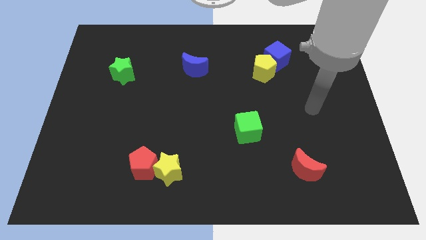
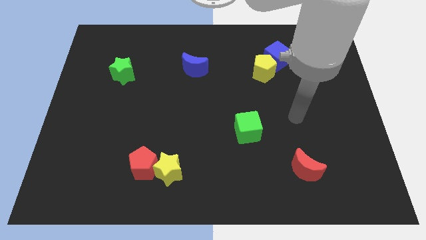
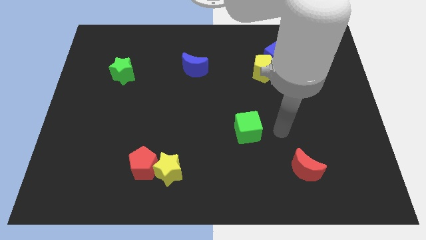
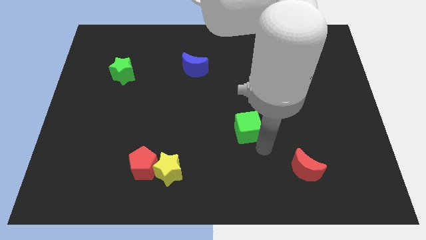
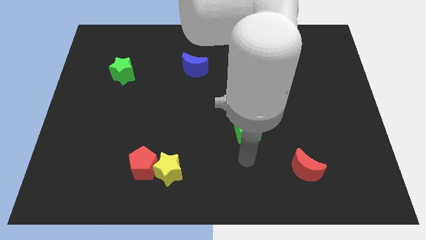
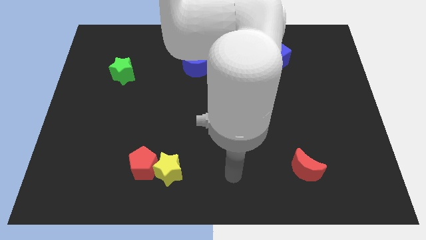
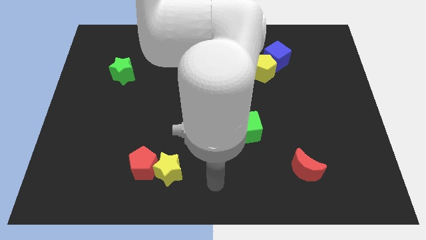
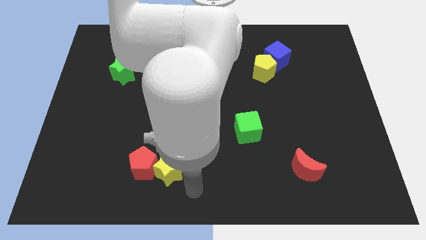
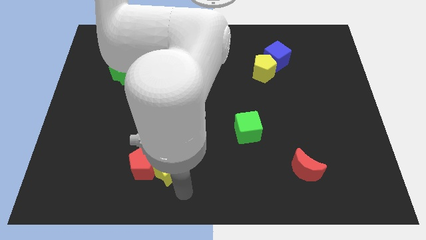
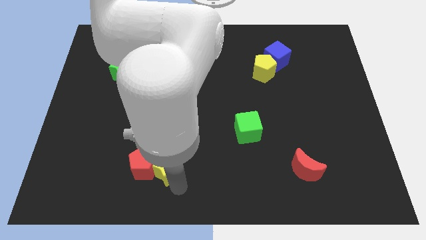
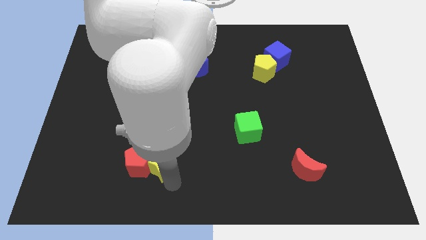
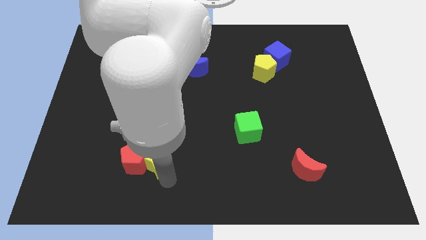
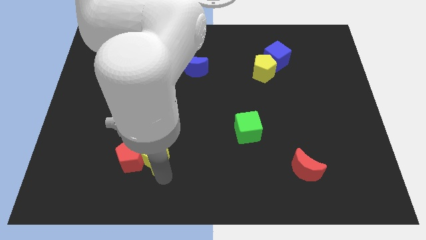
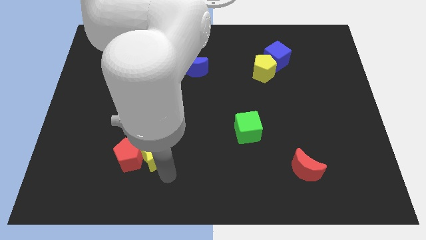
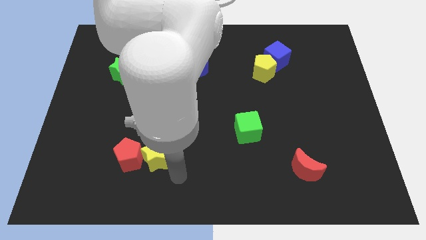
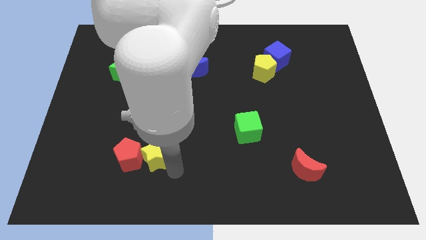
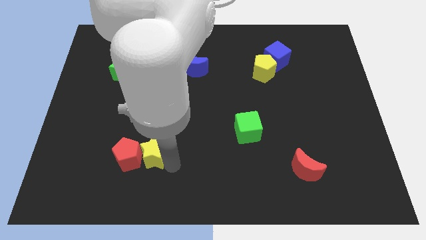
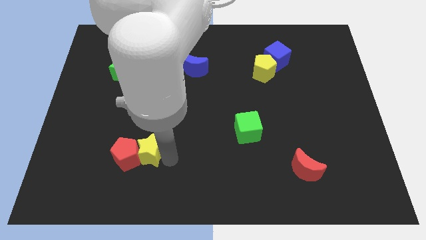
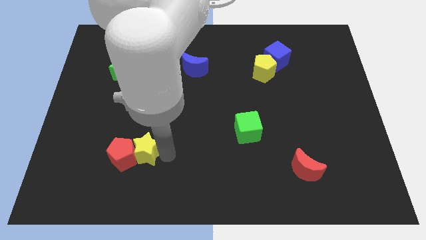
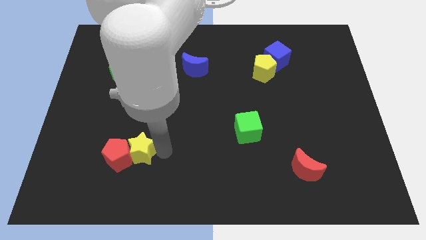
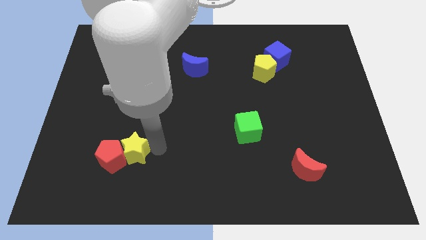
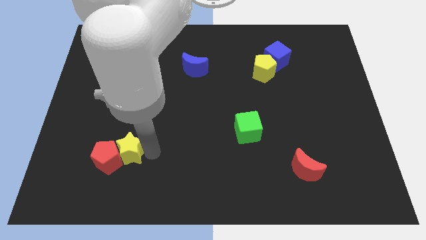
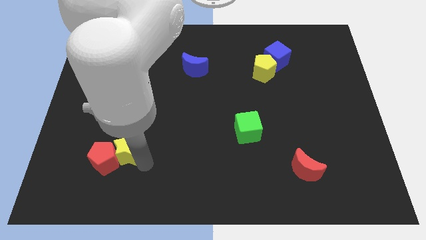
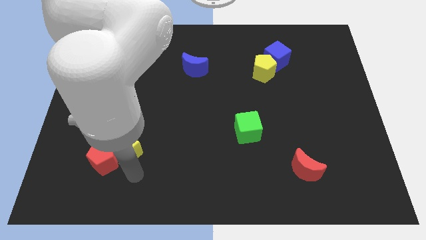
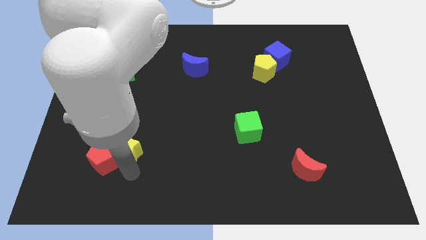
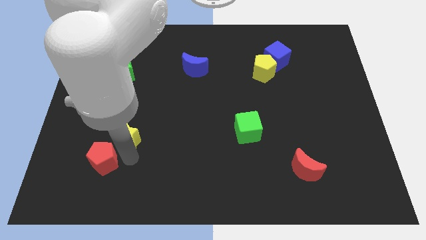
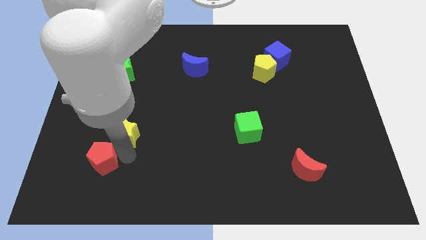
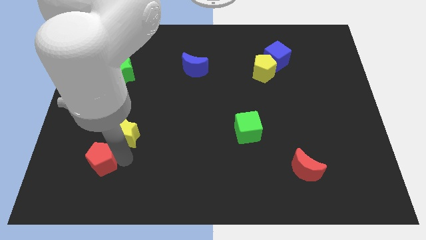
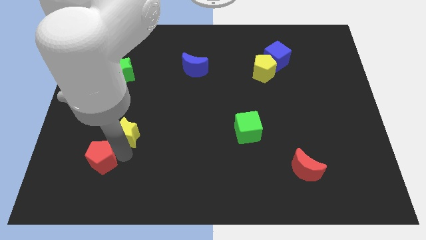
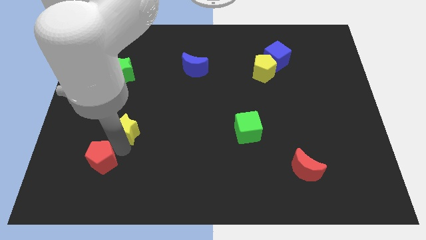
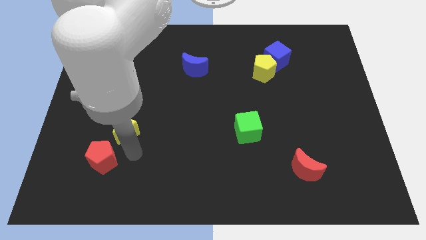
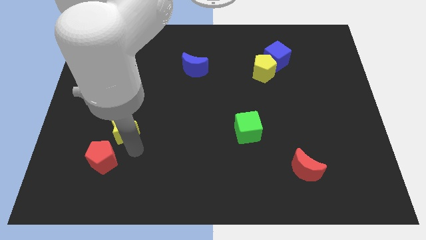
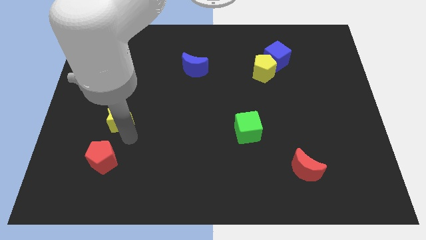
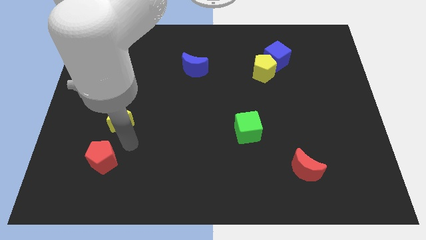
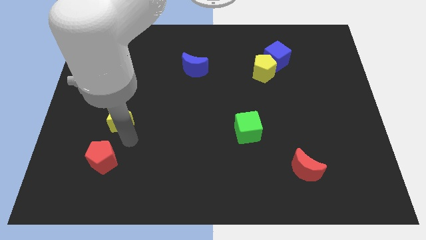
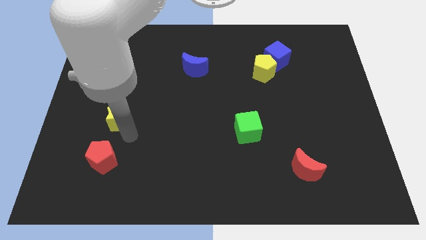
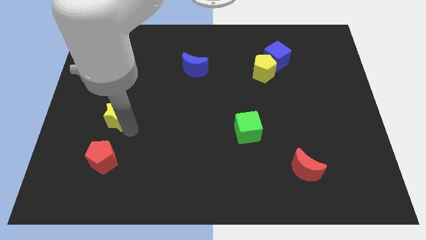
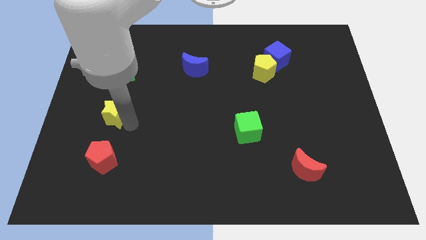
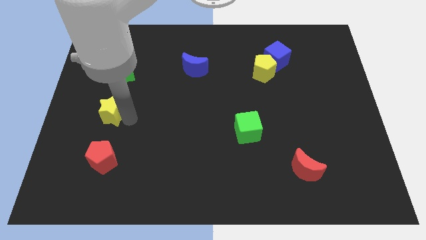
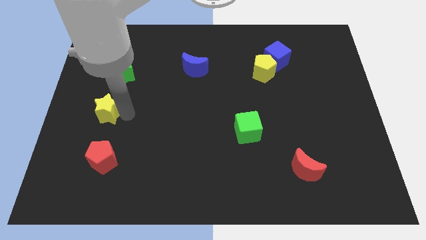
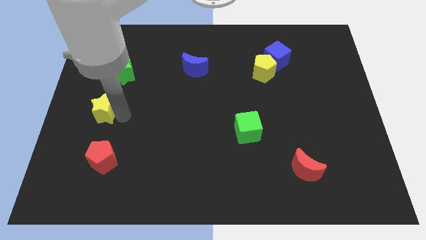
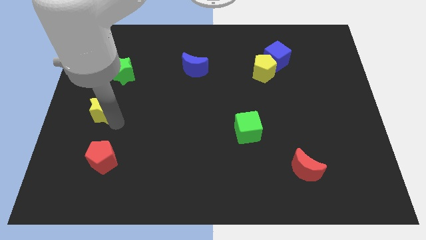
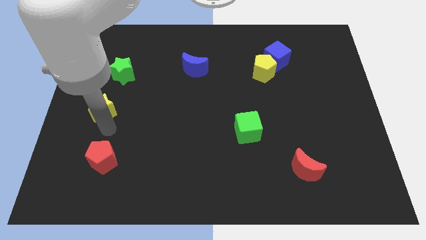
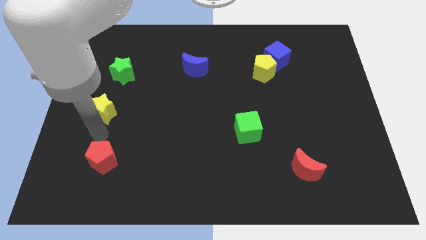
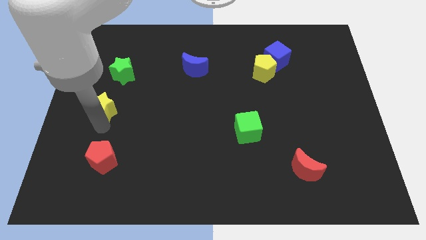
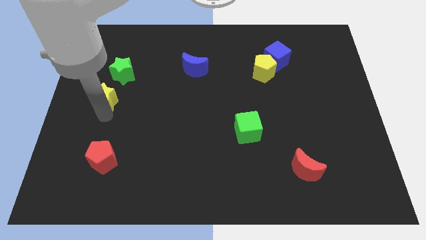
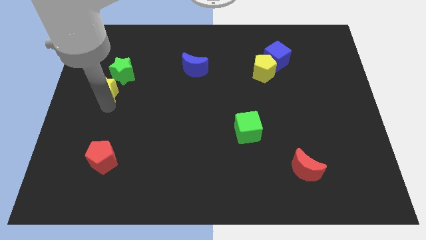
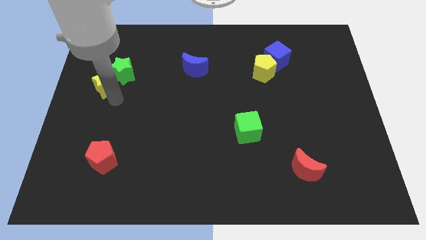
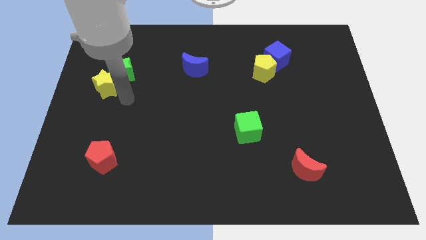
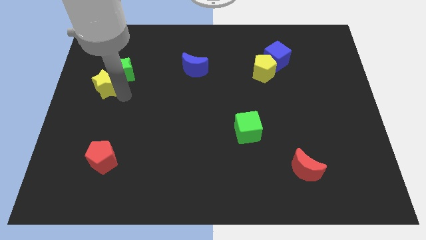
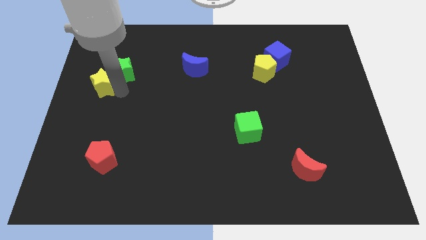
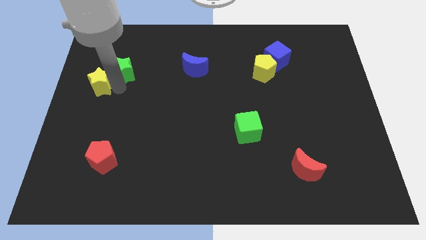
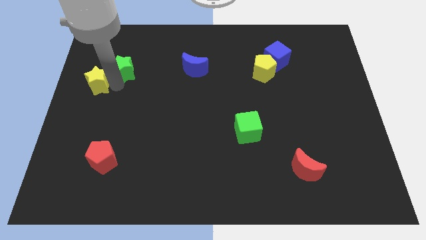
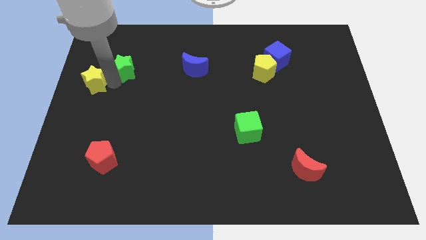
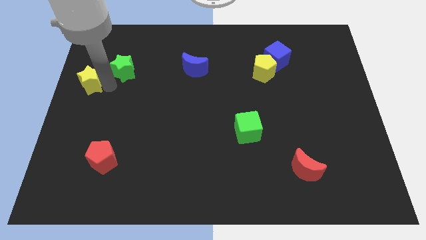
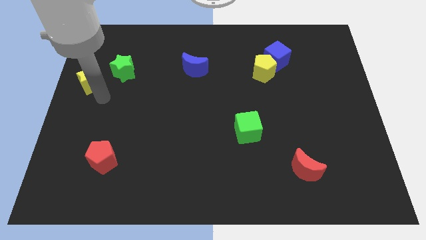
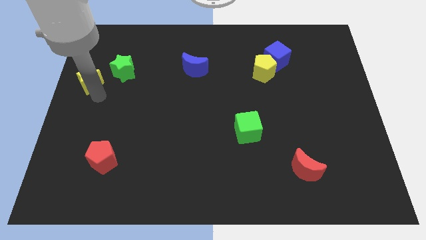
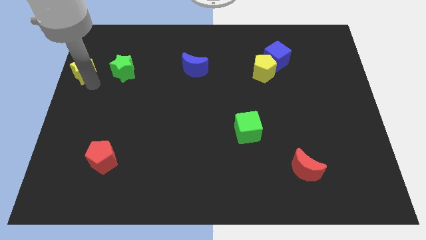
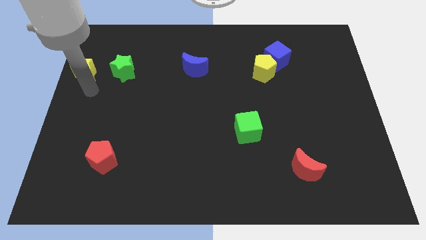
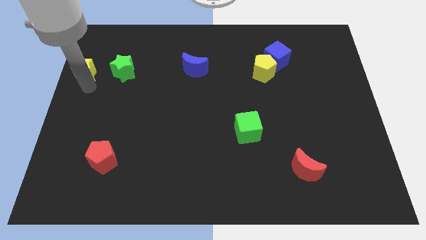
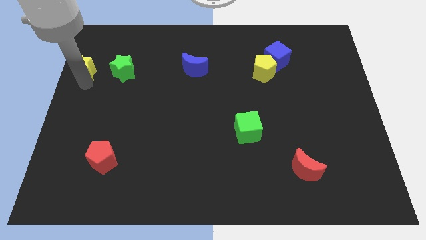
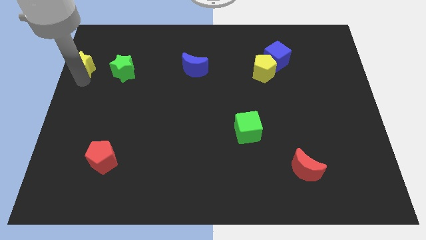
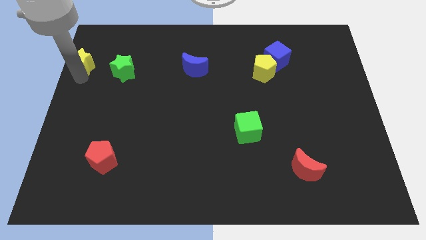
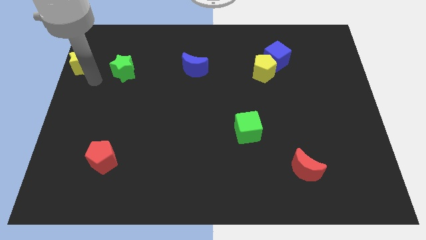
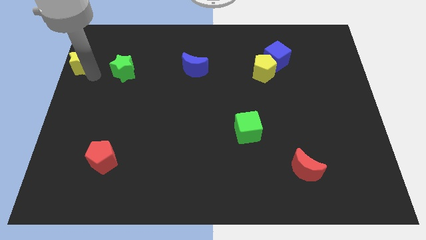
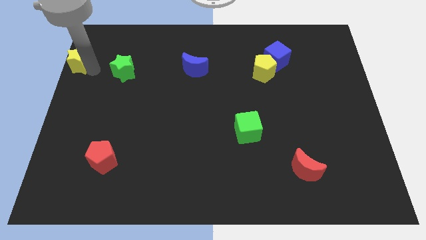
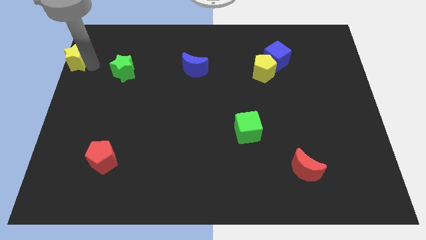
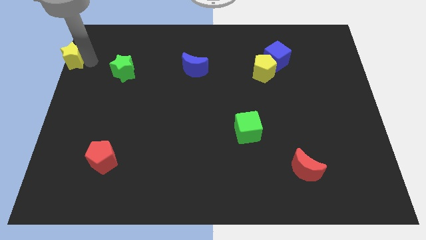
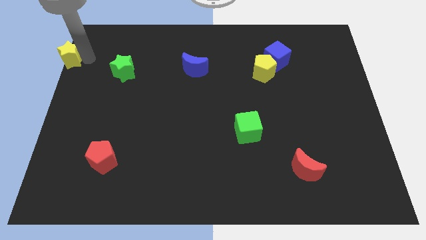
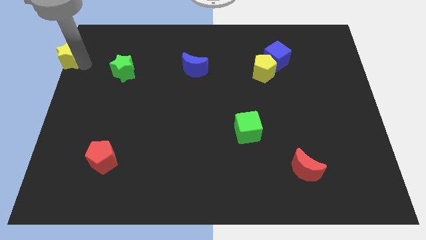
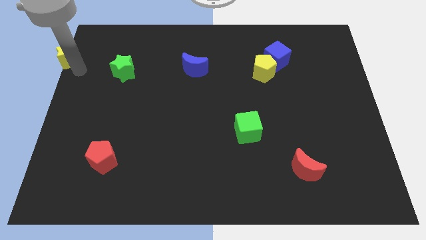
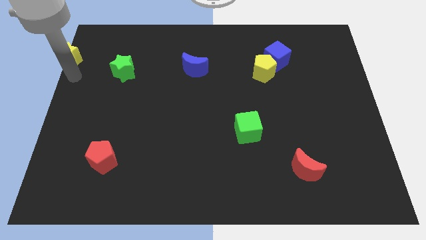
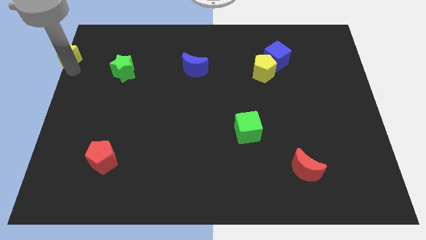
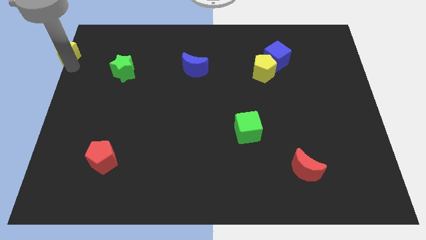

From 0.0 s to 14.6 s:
push the yellow star to the top left of the board
